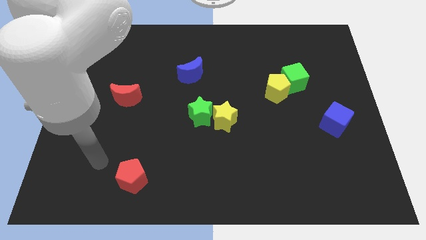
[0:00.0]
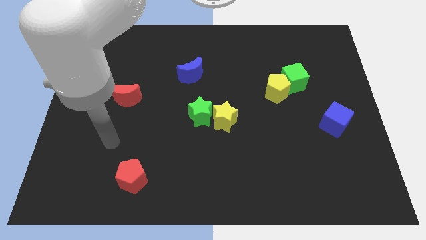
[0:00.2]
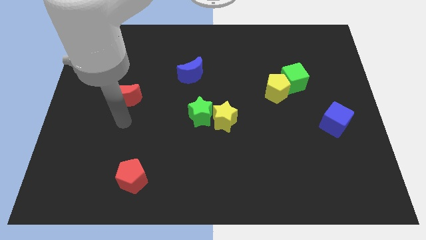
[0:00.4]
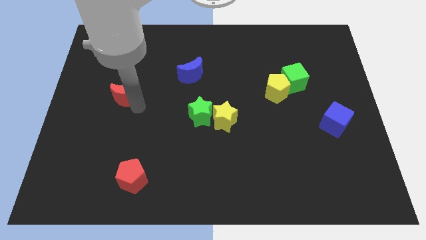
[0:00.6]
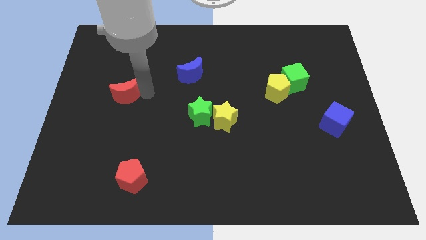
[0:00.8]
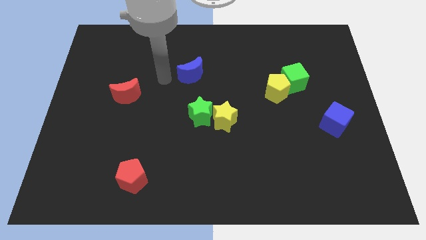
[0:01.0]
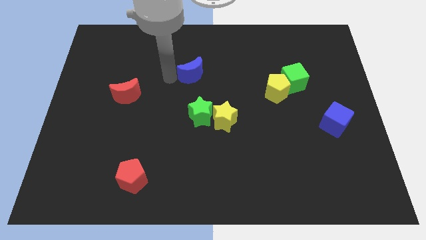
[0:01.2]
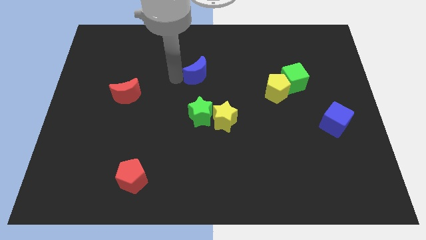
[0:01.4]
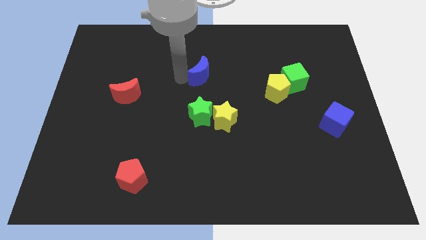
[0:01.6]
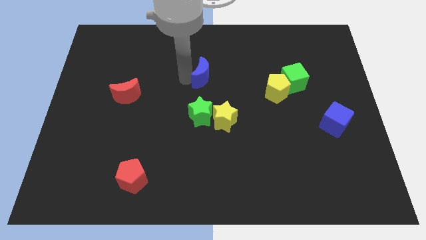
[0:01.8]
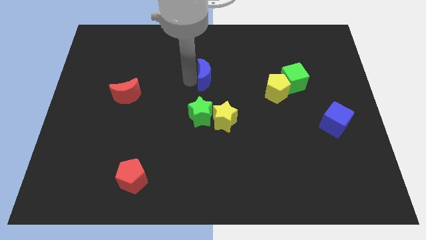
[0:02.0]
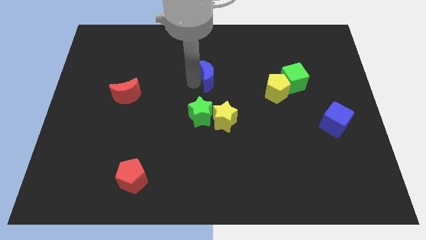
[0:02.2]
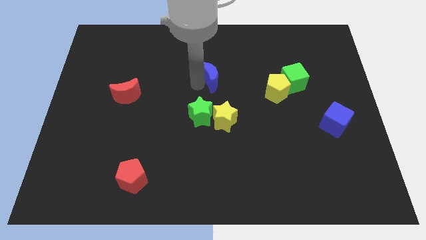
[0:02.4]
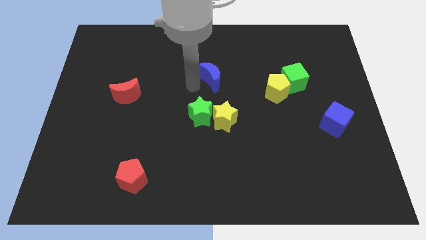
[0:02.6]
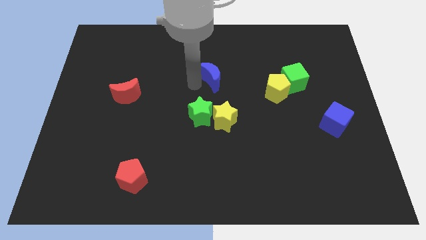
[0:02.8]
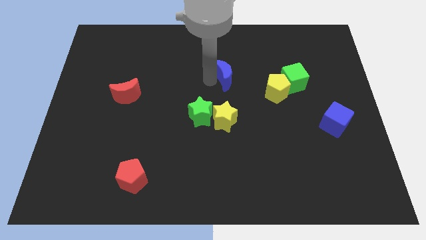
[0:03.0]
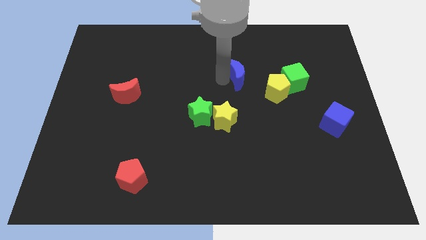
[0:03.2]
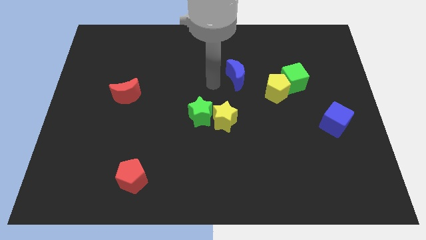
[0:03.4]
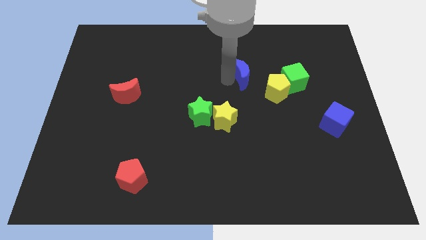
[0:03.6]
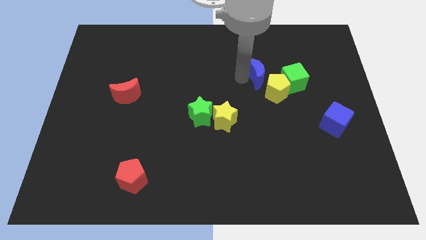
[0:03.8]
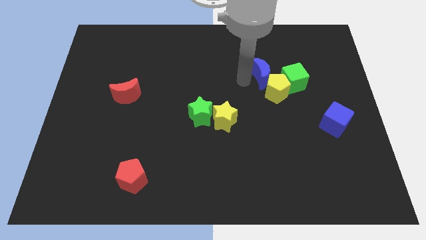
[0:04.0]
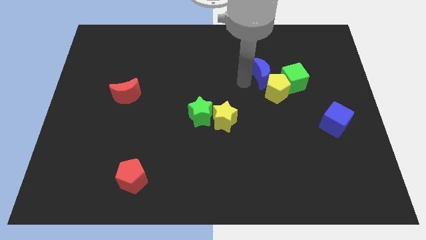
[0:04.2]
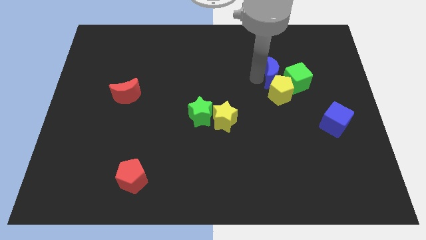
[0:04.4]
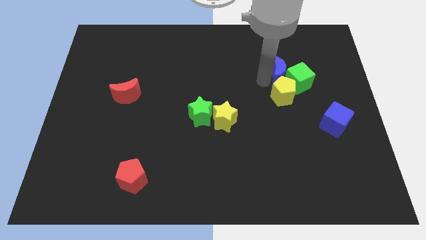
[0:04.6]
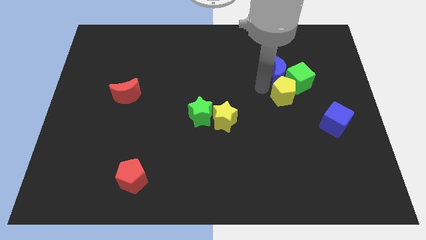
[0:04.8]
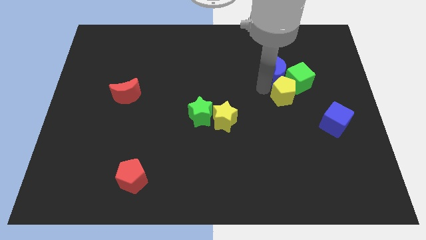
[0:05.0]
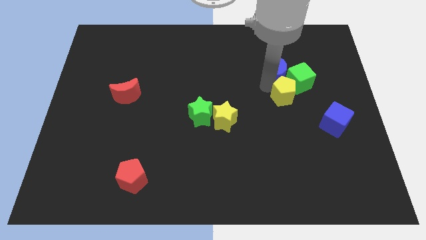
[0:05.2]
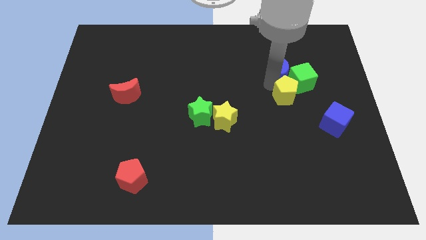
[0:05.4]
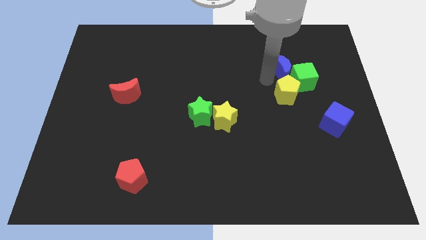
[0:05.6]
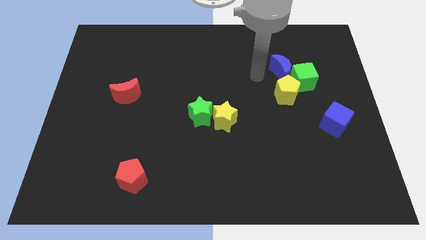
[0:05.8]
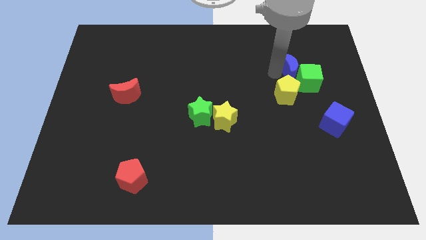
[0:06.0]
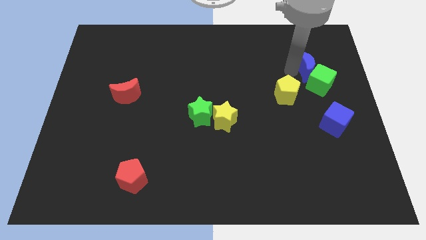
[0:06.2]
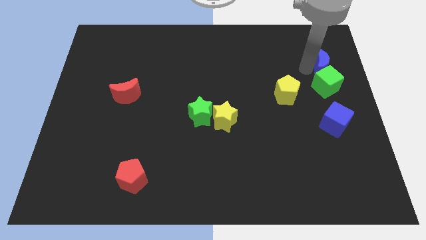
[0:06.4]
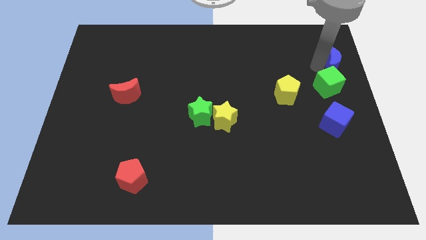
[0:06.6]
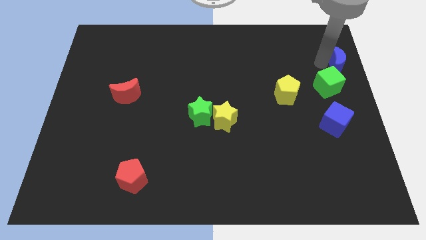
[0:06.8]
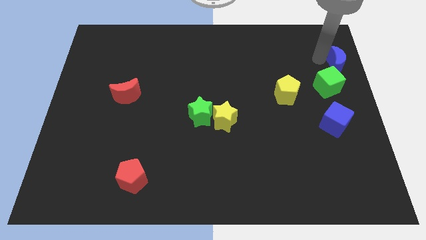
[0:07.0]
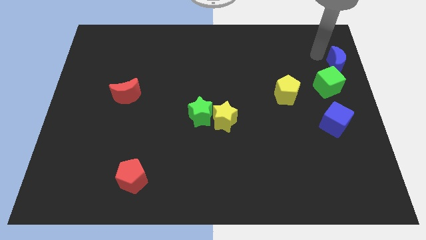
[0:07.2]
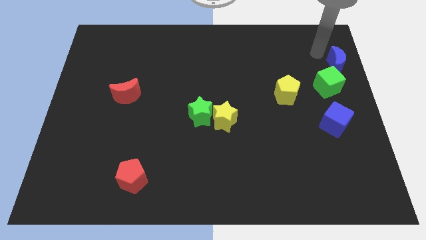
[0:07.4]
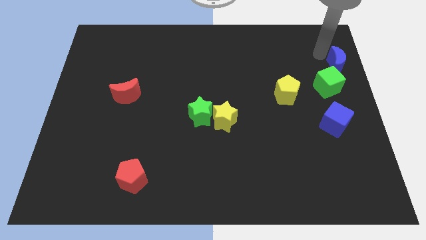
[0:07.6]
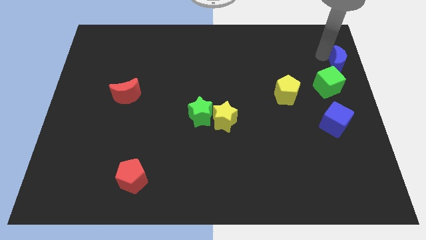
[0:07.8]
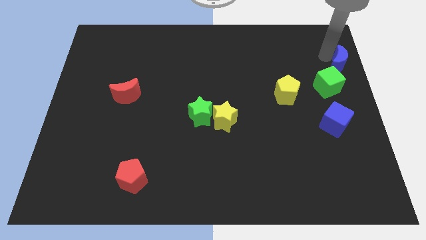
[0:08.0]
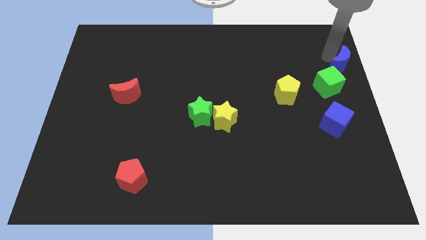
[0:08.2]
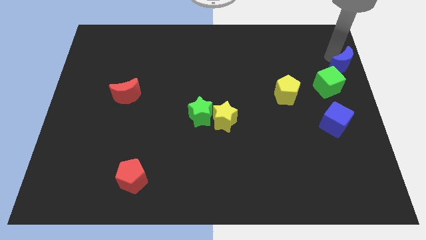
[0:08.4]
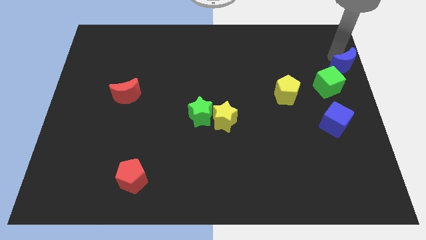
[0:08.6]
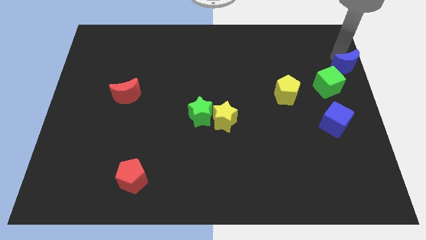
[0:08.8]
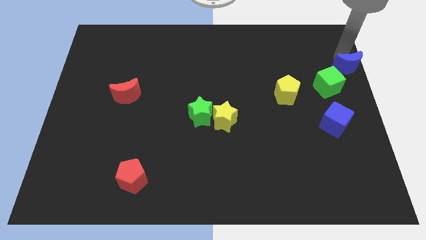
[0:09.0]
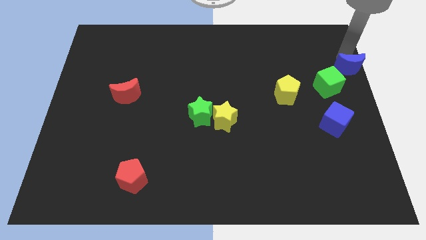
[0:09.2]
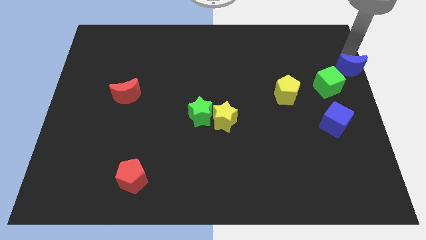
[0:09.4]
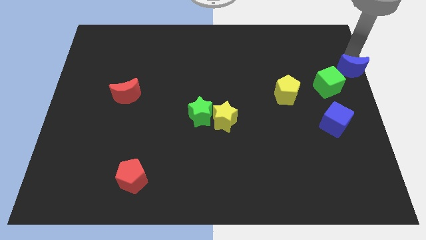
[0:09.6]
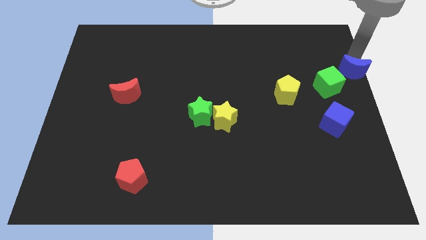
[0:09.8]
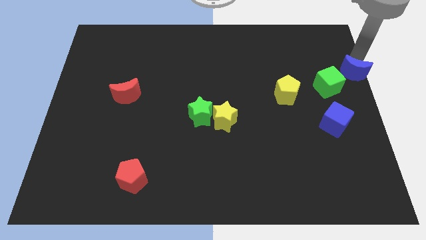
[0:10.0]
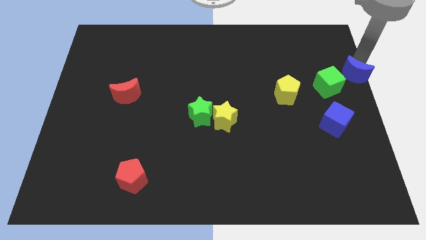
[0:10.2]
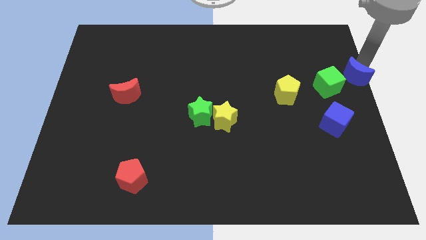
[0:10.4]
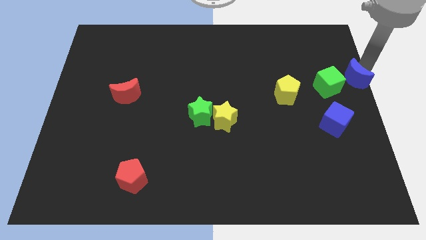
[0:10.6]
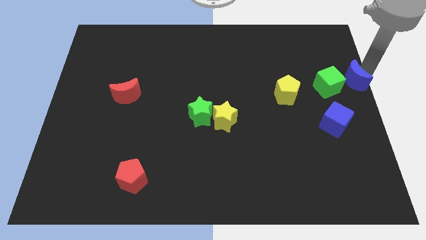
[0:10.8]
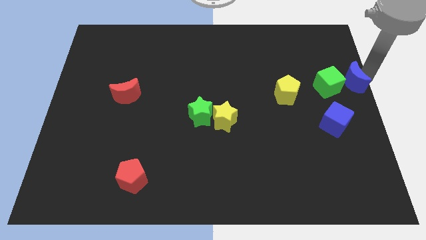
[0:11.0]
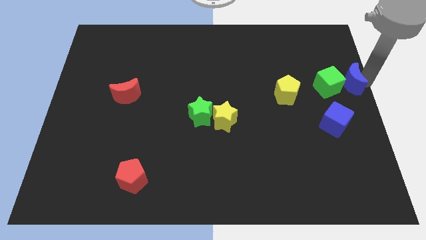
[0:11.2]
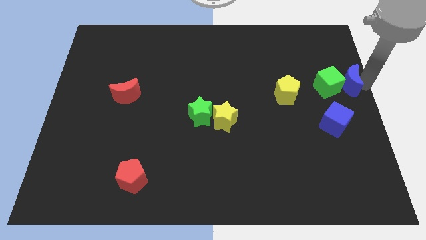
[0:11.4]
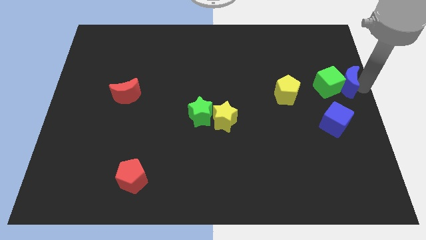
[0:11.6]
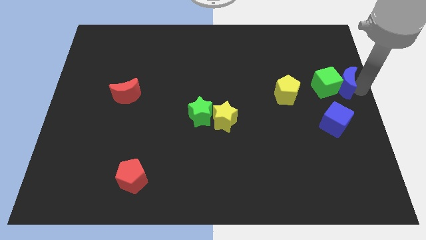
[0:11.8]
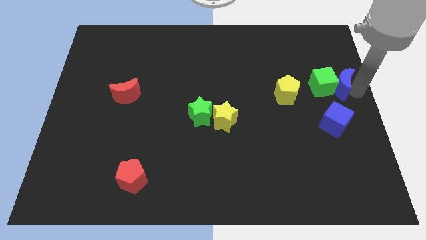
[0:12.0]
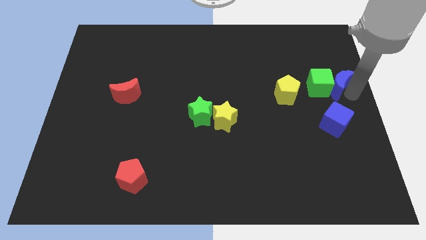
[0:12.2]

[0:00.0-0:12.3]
push the blue moon to the top right side of the green cube
